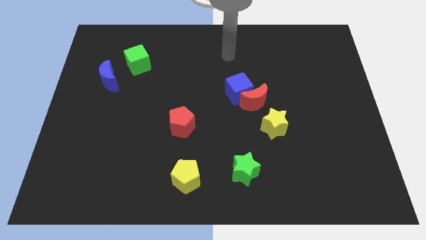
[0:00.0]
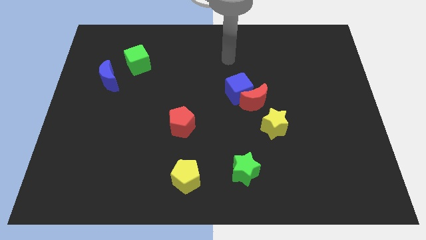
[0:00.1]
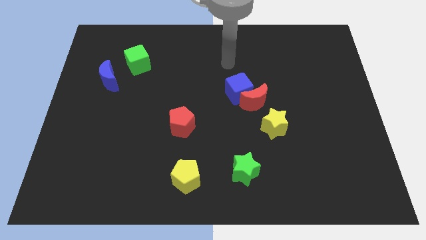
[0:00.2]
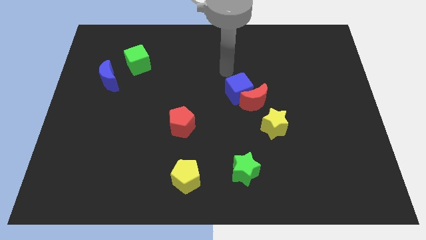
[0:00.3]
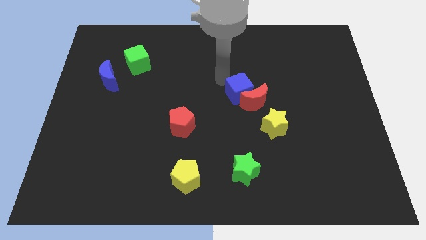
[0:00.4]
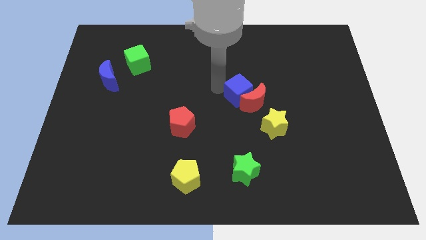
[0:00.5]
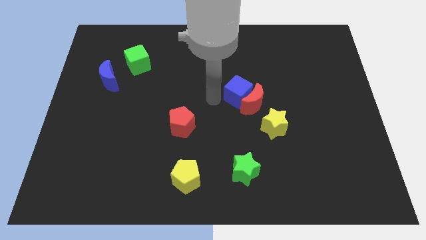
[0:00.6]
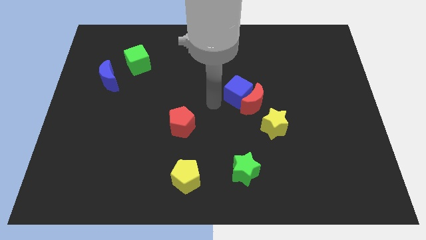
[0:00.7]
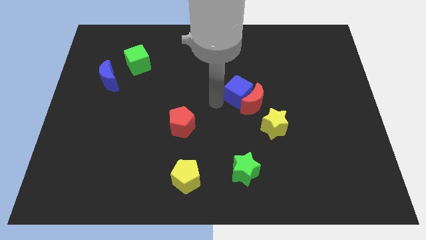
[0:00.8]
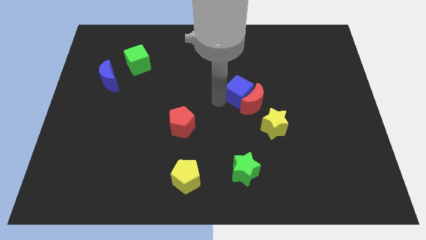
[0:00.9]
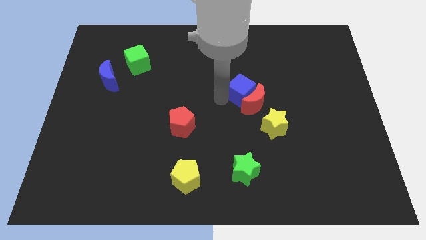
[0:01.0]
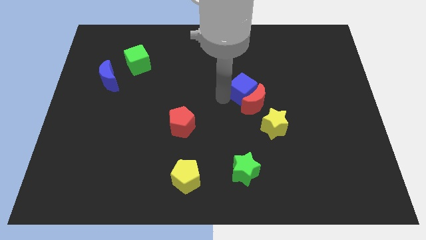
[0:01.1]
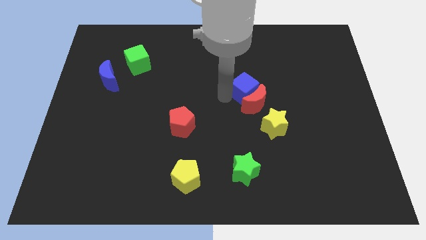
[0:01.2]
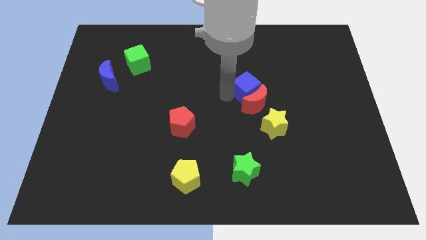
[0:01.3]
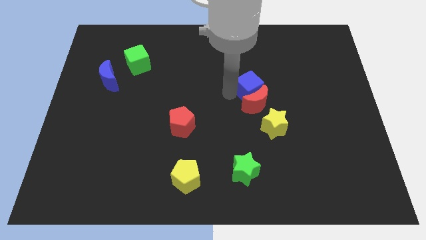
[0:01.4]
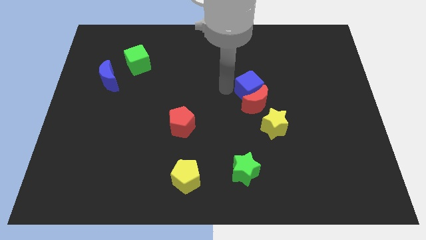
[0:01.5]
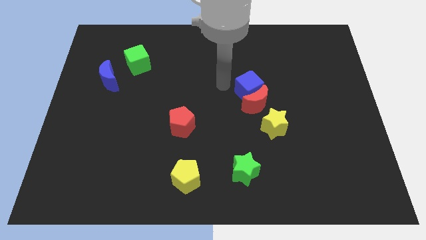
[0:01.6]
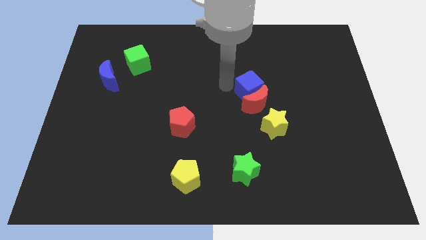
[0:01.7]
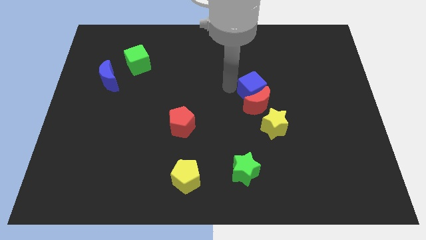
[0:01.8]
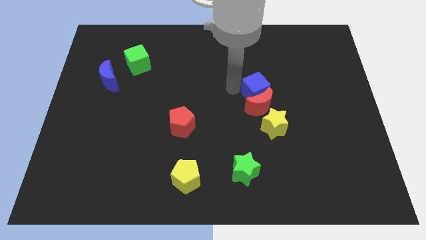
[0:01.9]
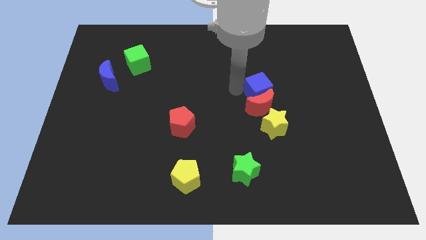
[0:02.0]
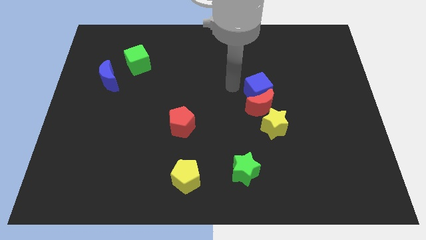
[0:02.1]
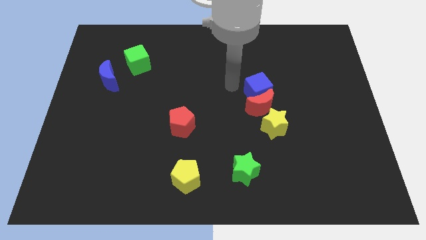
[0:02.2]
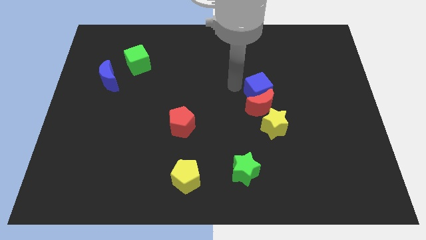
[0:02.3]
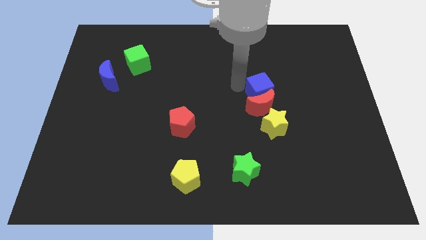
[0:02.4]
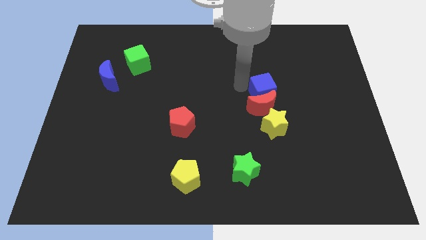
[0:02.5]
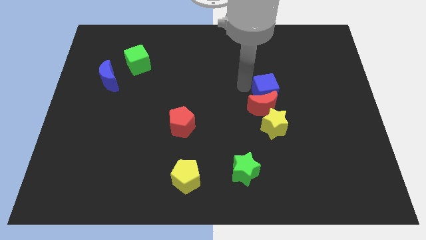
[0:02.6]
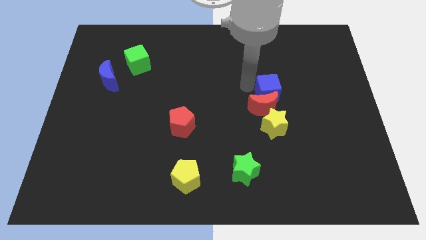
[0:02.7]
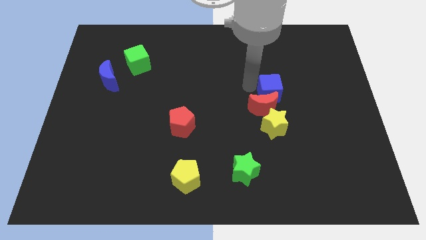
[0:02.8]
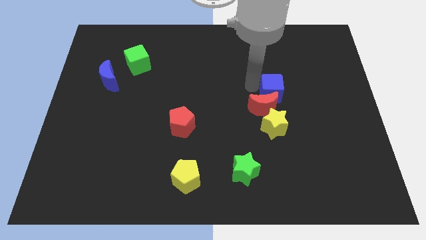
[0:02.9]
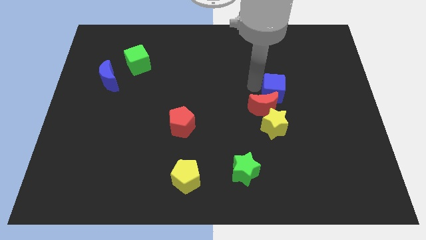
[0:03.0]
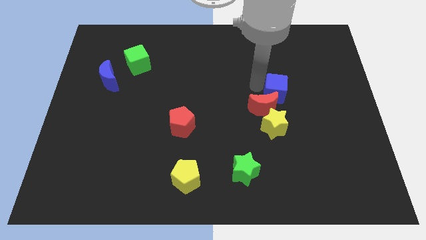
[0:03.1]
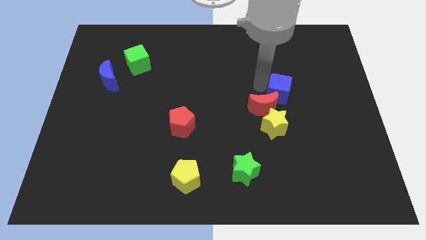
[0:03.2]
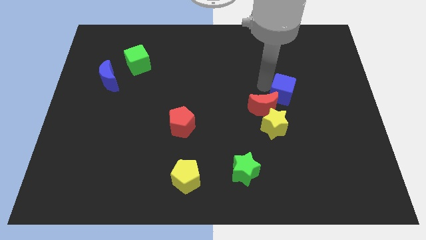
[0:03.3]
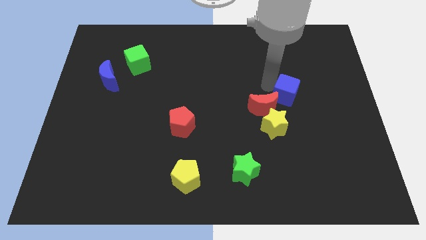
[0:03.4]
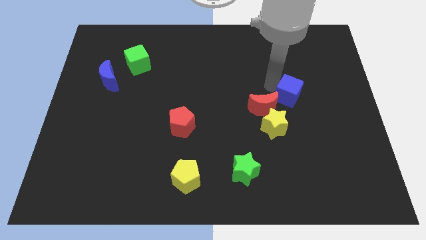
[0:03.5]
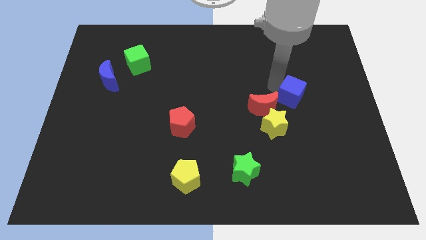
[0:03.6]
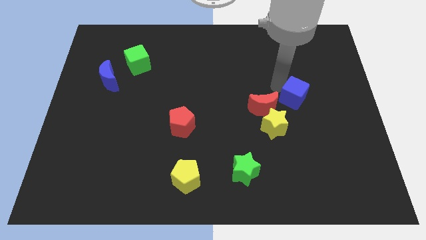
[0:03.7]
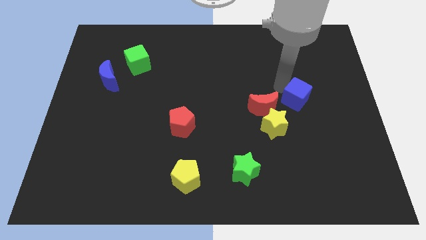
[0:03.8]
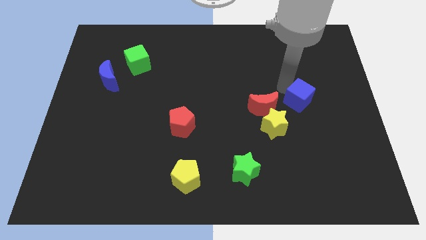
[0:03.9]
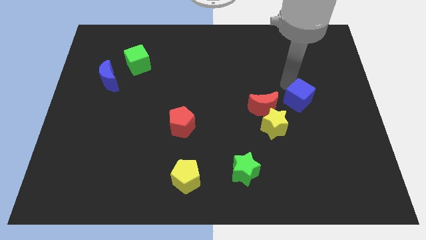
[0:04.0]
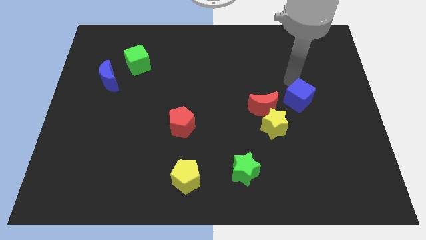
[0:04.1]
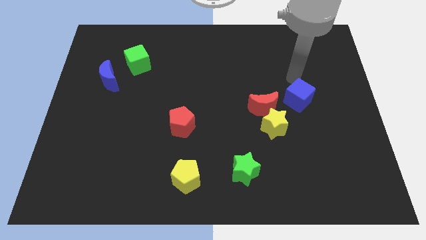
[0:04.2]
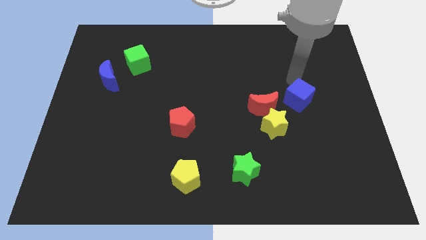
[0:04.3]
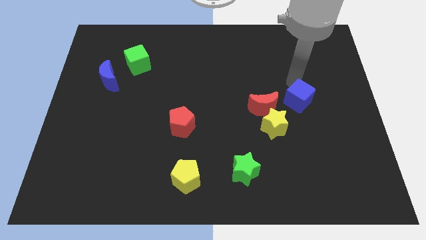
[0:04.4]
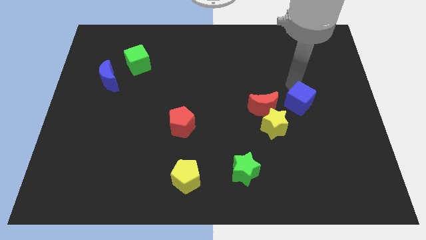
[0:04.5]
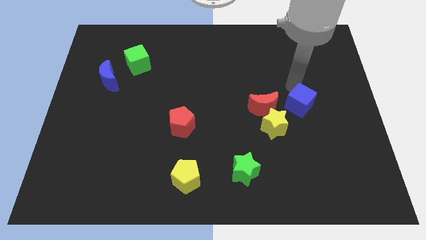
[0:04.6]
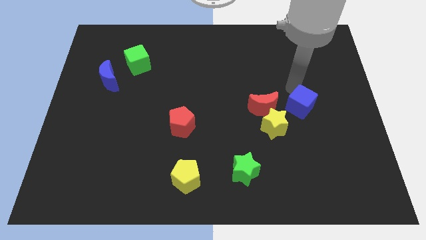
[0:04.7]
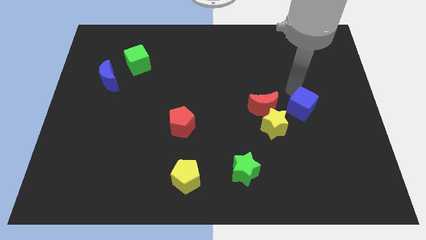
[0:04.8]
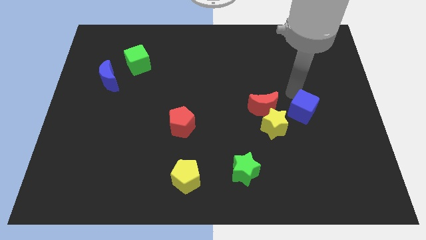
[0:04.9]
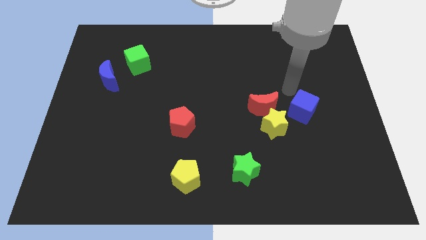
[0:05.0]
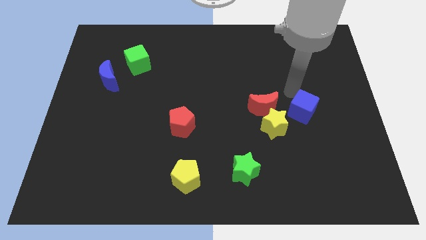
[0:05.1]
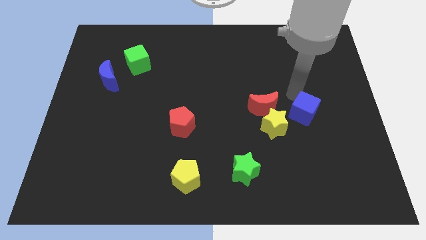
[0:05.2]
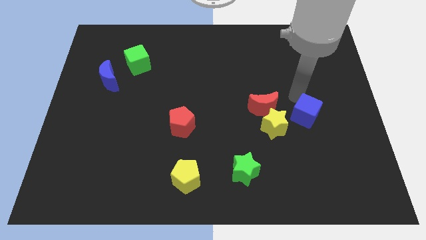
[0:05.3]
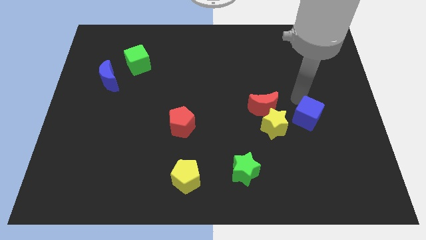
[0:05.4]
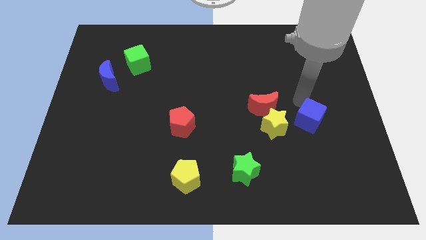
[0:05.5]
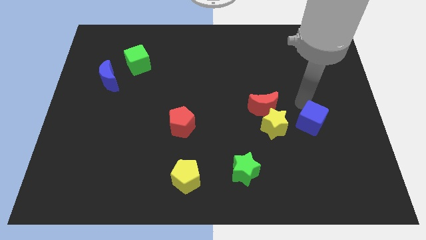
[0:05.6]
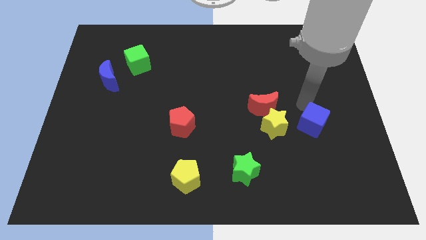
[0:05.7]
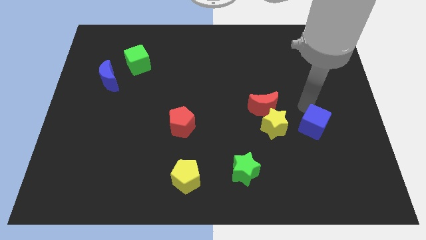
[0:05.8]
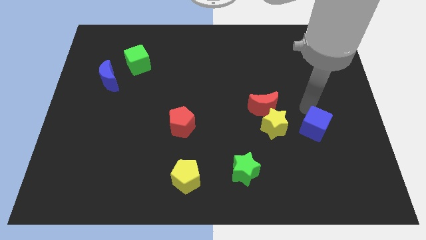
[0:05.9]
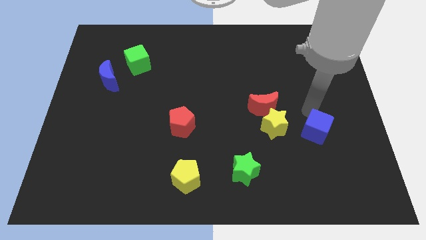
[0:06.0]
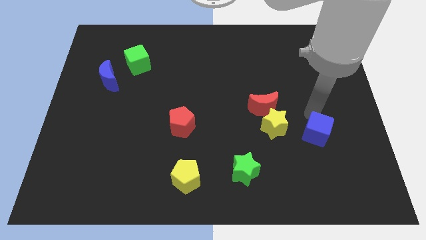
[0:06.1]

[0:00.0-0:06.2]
move the blue cube downwards and right diagonally

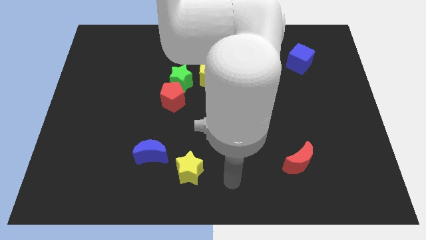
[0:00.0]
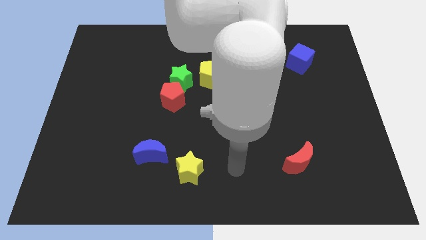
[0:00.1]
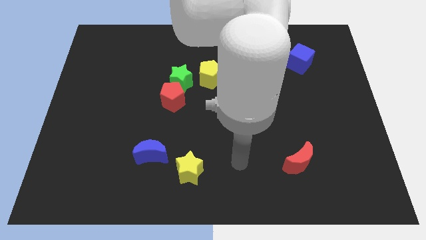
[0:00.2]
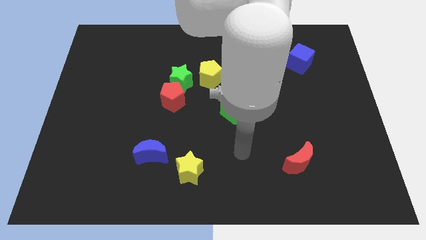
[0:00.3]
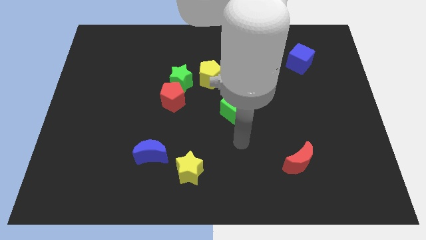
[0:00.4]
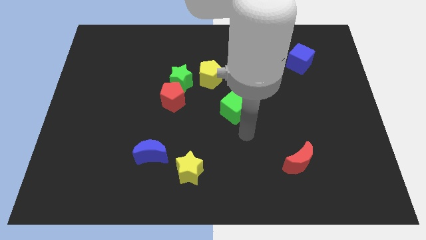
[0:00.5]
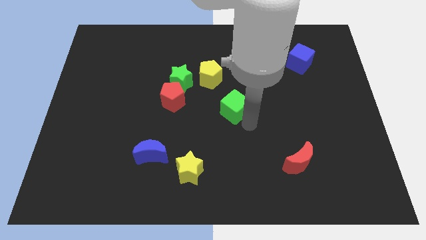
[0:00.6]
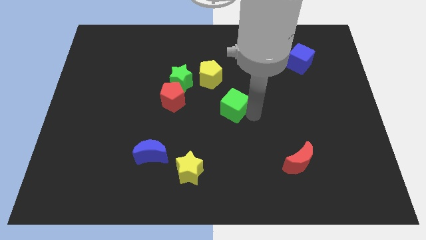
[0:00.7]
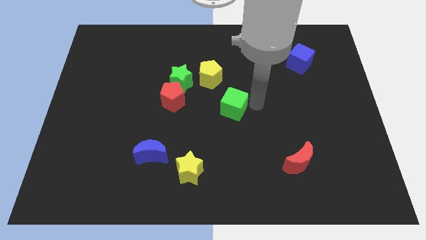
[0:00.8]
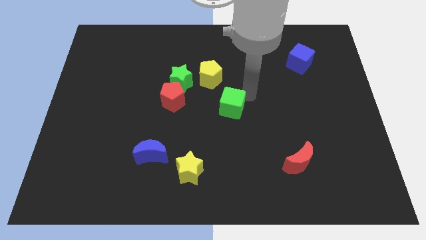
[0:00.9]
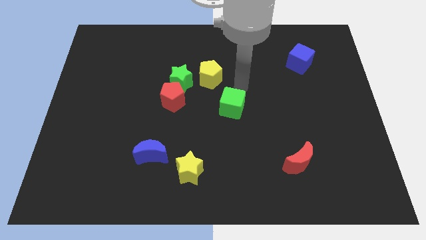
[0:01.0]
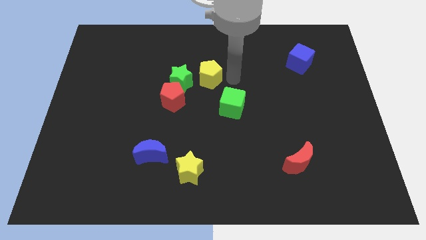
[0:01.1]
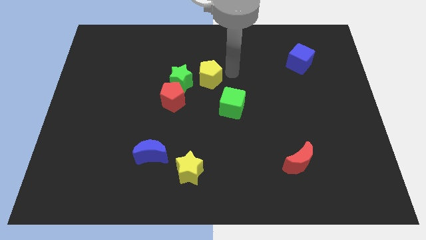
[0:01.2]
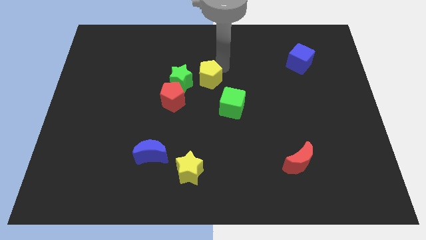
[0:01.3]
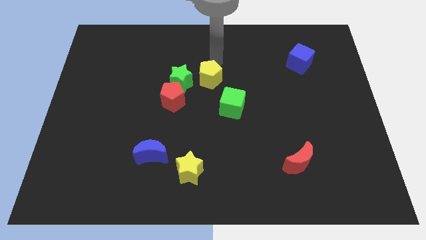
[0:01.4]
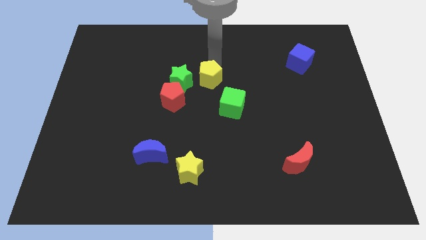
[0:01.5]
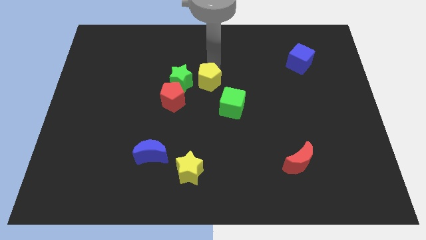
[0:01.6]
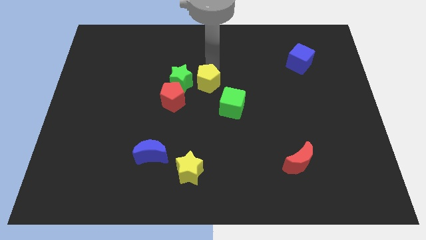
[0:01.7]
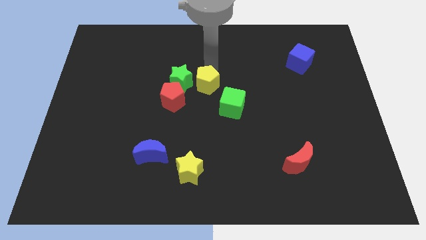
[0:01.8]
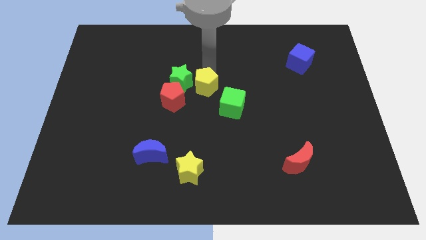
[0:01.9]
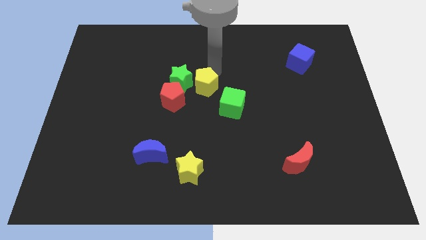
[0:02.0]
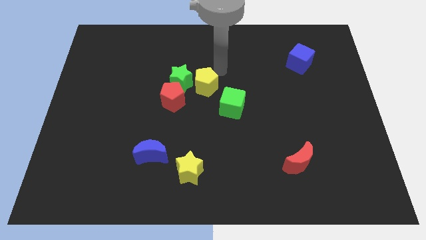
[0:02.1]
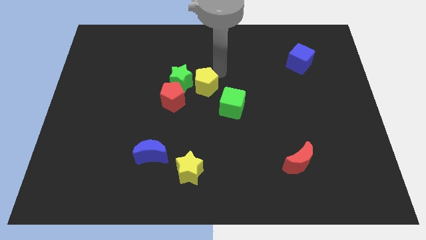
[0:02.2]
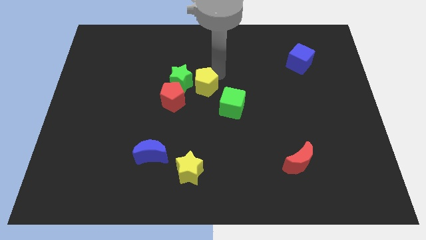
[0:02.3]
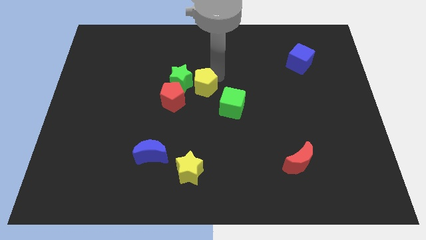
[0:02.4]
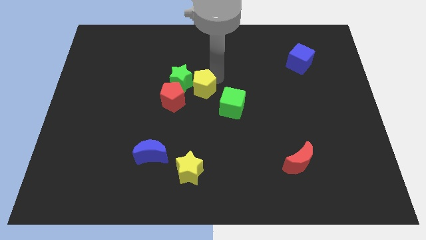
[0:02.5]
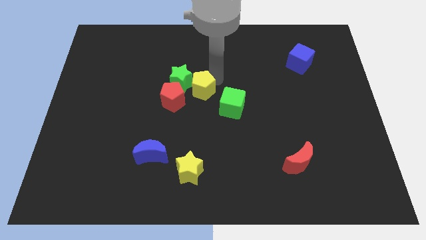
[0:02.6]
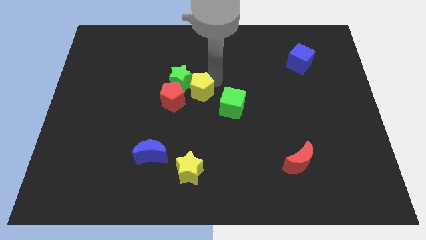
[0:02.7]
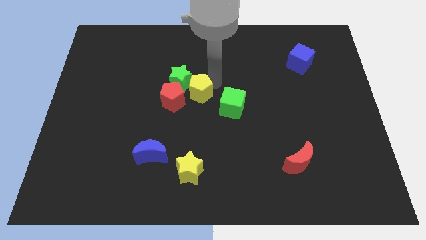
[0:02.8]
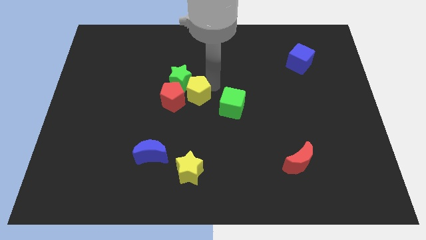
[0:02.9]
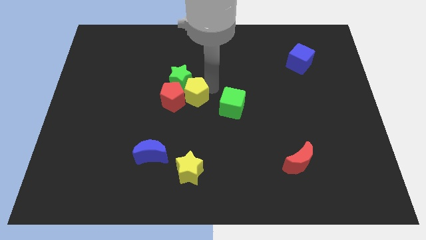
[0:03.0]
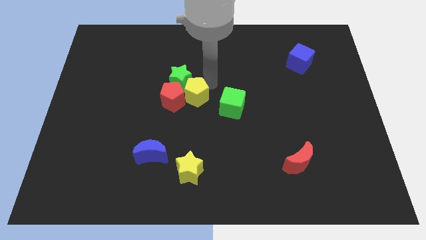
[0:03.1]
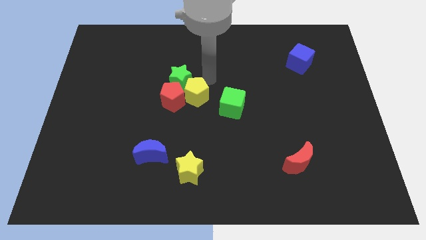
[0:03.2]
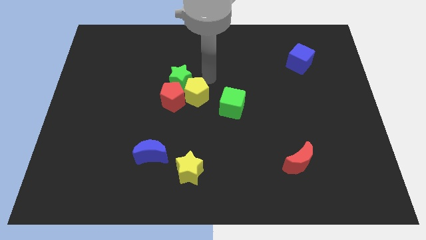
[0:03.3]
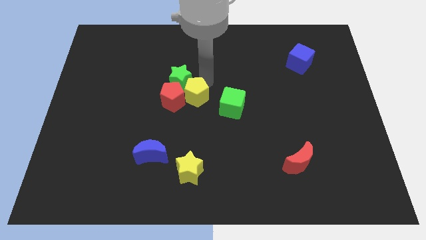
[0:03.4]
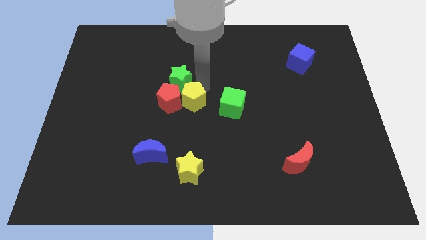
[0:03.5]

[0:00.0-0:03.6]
slide the yellow pentagon down and left a little bit
